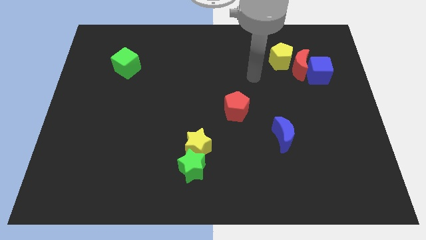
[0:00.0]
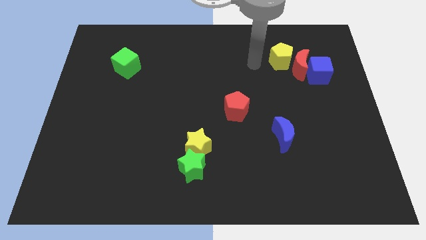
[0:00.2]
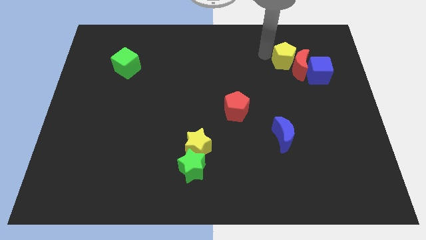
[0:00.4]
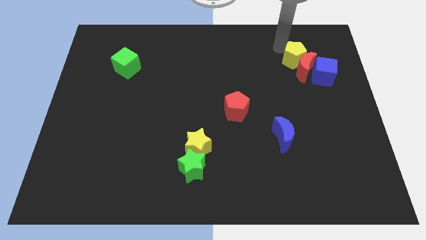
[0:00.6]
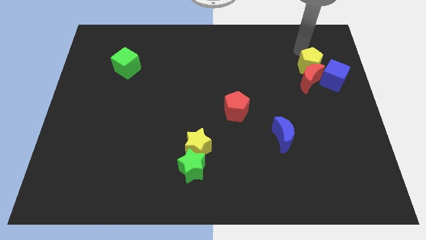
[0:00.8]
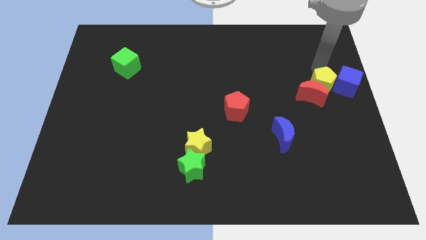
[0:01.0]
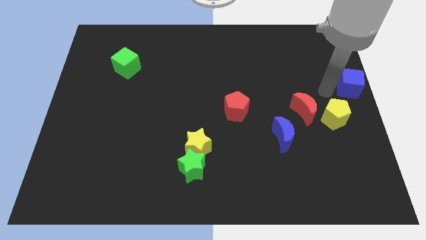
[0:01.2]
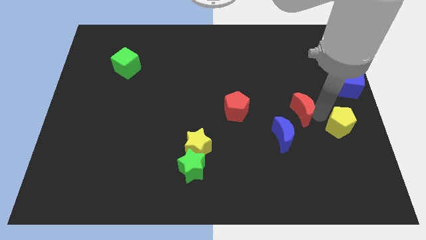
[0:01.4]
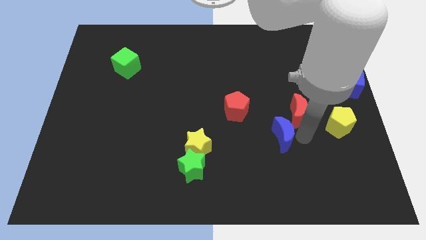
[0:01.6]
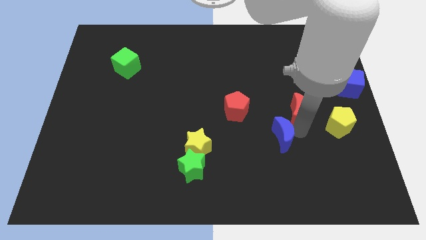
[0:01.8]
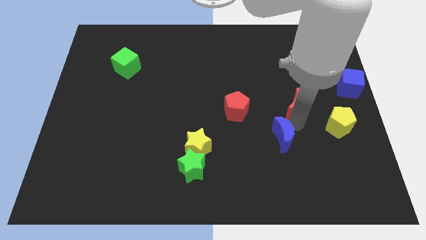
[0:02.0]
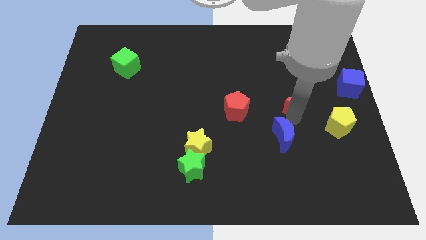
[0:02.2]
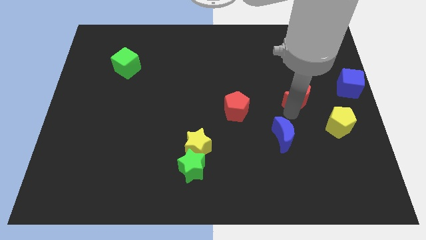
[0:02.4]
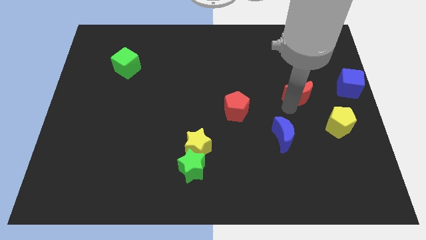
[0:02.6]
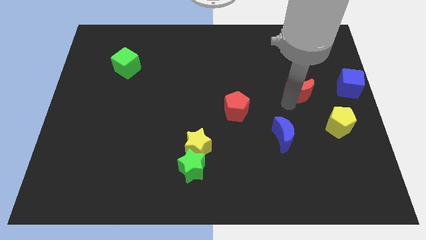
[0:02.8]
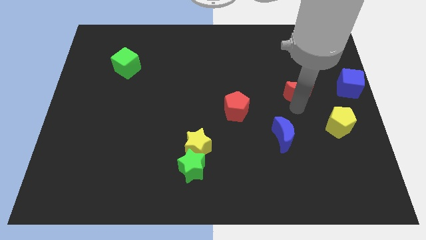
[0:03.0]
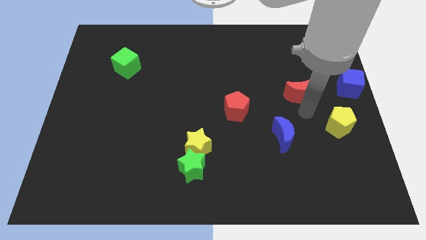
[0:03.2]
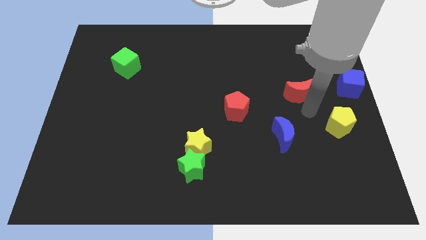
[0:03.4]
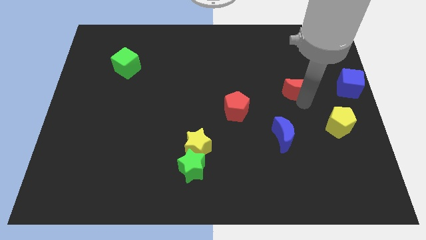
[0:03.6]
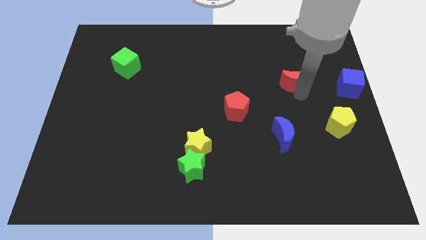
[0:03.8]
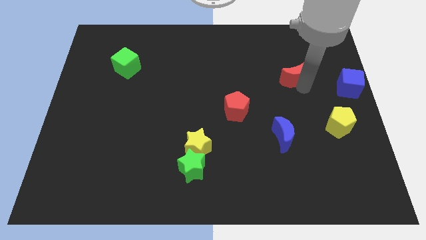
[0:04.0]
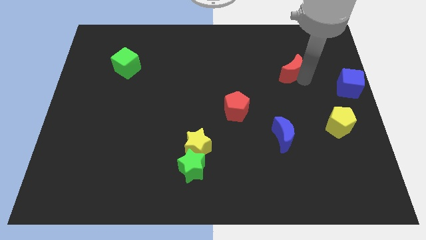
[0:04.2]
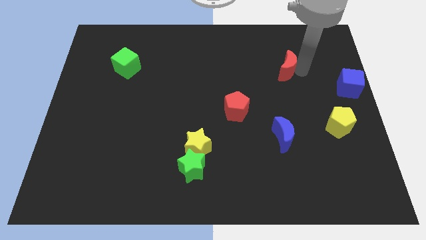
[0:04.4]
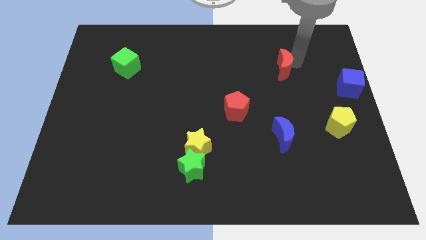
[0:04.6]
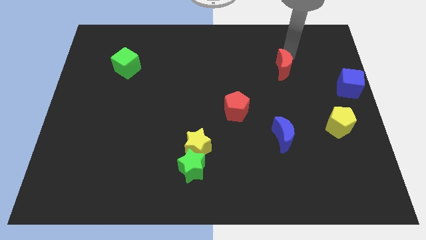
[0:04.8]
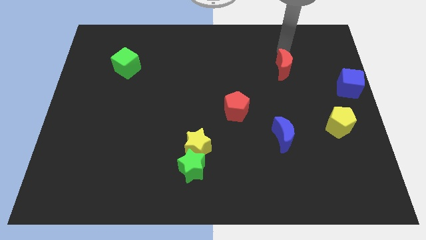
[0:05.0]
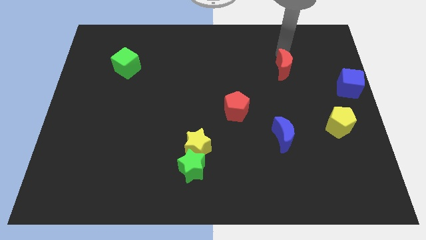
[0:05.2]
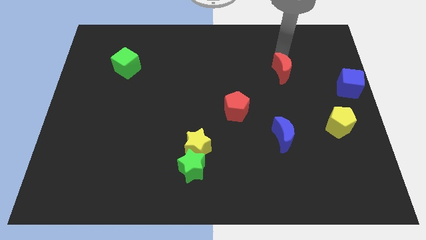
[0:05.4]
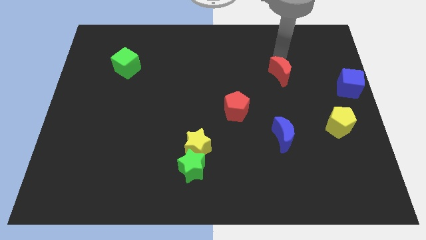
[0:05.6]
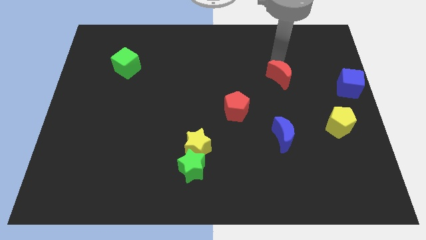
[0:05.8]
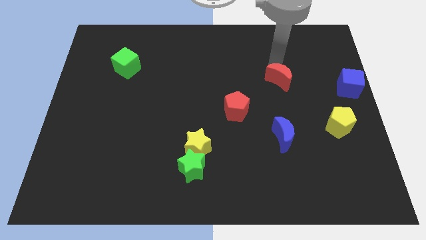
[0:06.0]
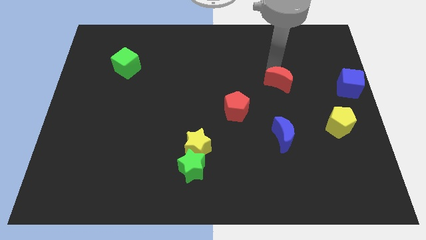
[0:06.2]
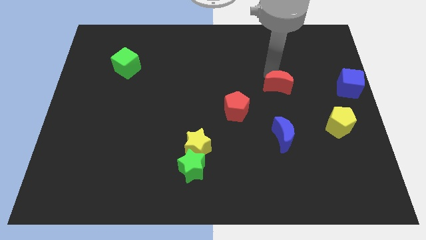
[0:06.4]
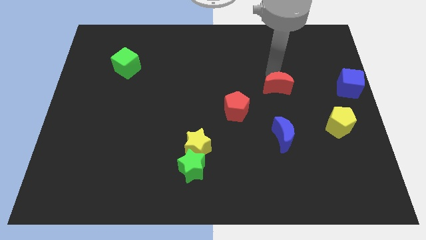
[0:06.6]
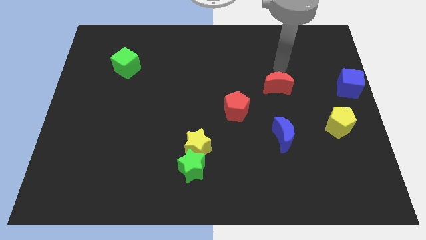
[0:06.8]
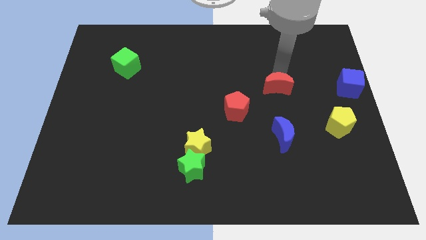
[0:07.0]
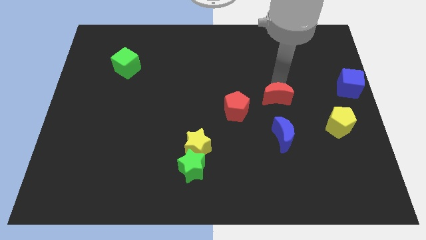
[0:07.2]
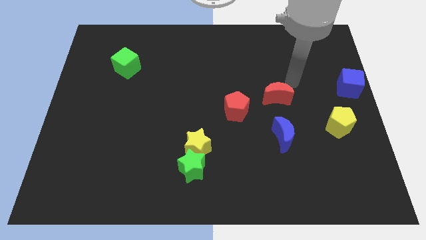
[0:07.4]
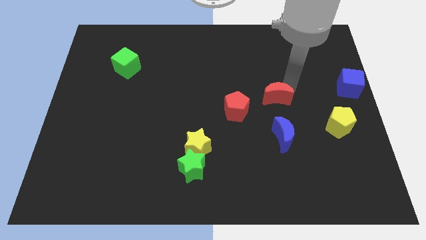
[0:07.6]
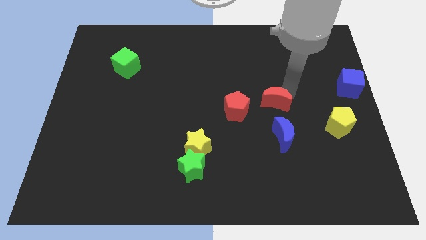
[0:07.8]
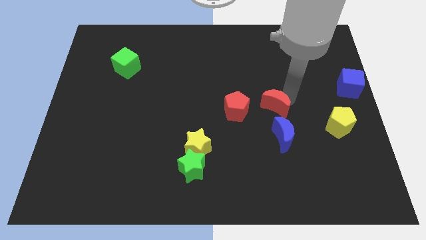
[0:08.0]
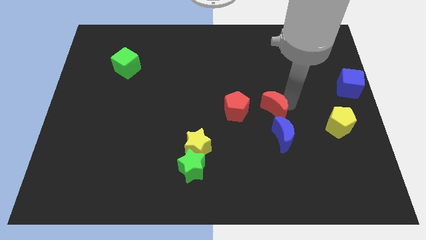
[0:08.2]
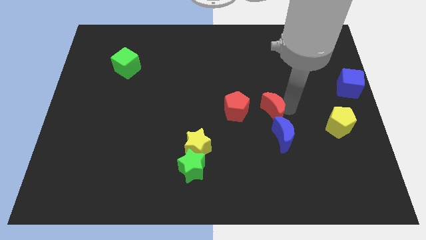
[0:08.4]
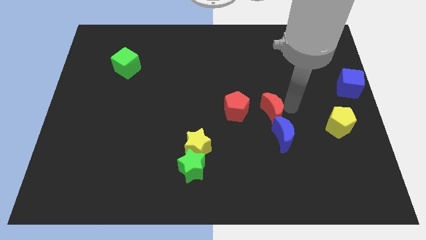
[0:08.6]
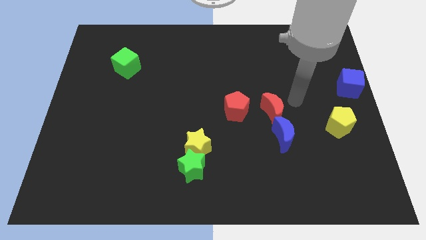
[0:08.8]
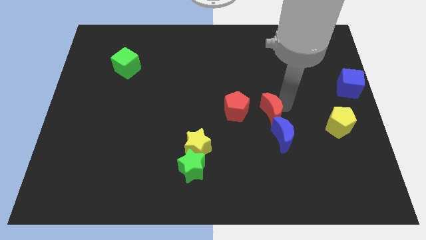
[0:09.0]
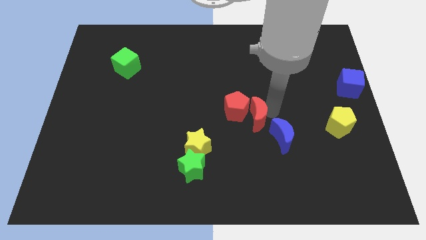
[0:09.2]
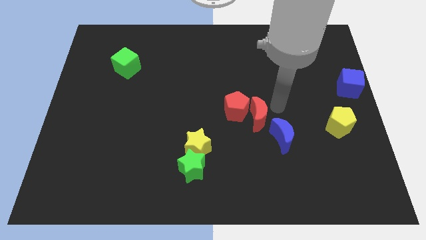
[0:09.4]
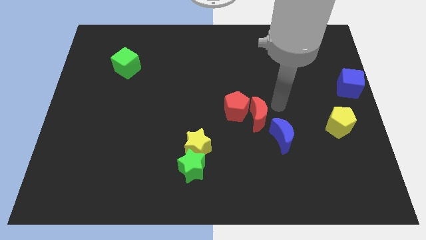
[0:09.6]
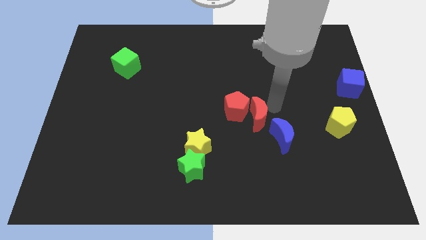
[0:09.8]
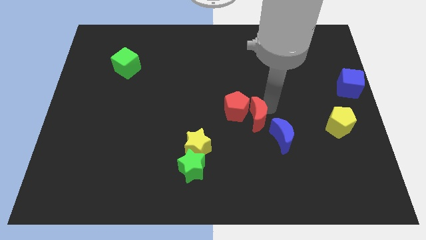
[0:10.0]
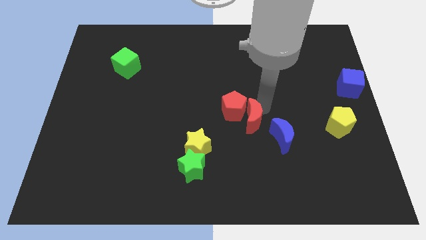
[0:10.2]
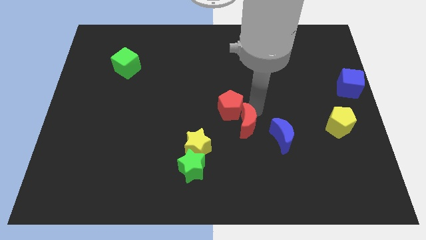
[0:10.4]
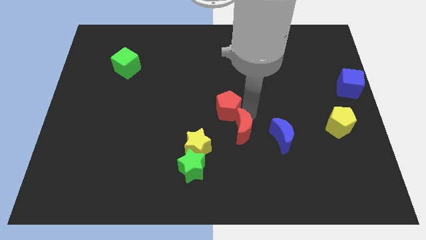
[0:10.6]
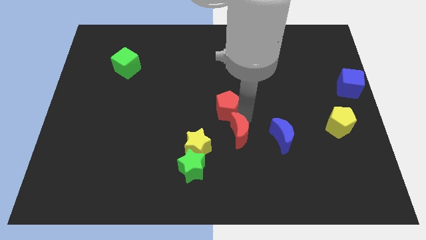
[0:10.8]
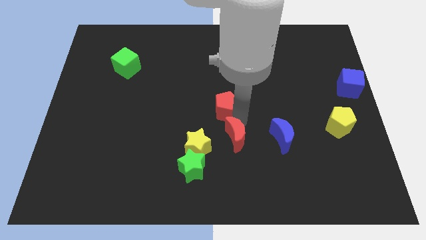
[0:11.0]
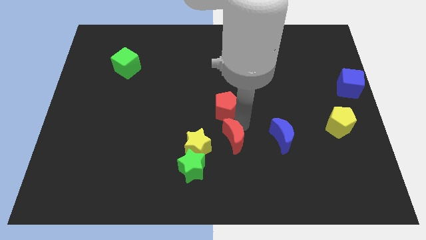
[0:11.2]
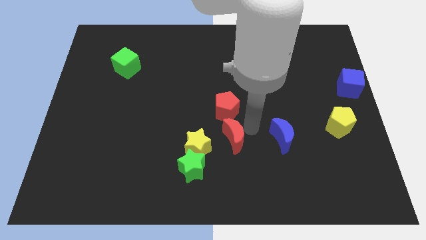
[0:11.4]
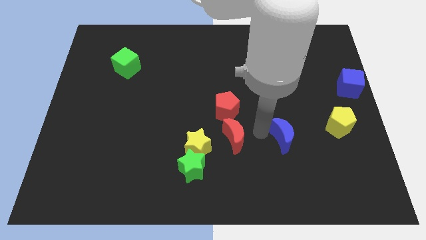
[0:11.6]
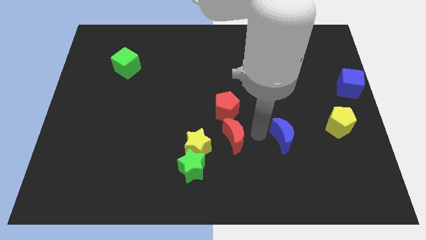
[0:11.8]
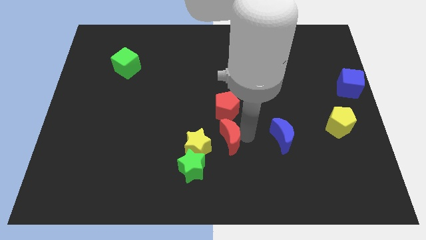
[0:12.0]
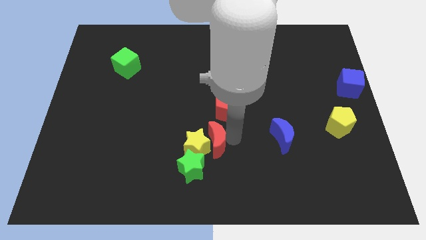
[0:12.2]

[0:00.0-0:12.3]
push the red moon next to the yellow star

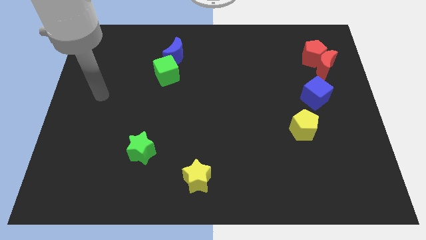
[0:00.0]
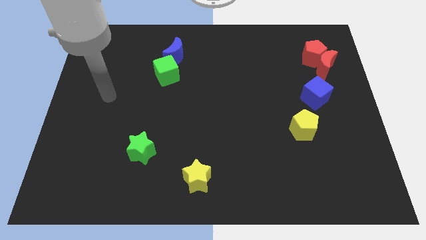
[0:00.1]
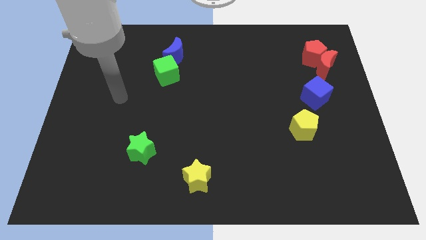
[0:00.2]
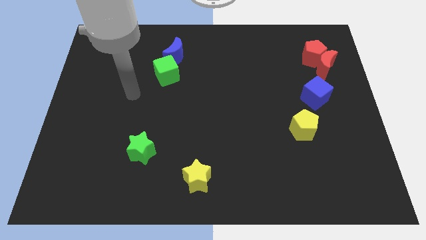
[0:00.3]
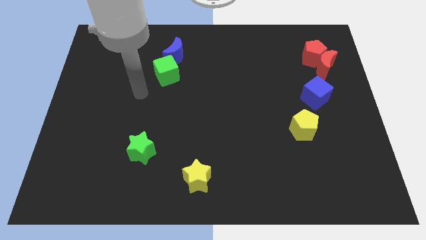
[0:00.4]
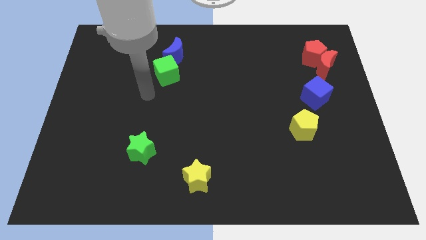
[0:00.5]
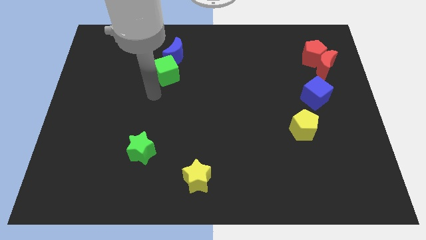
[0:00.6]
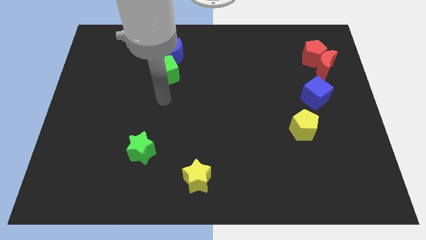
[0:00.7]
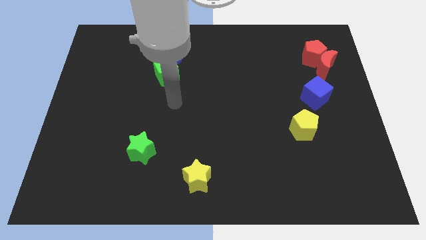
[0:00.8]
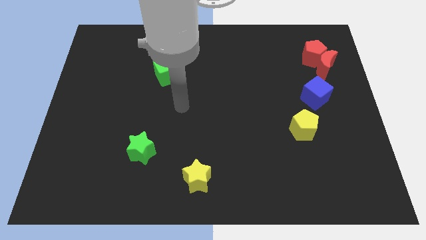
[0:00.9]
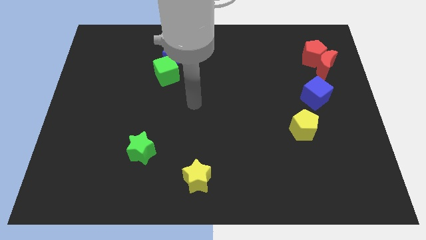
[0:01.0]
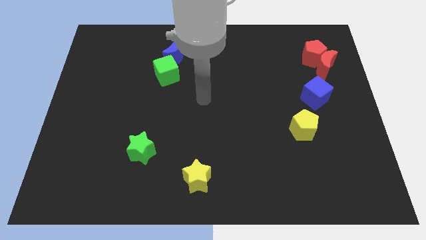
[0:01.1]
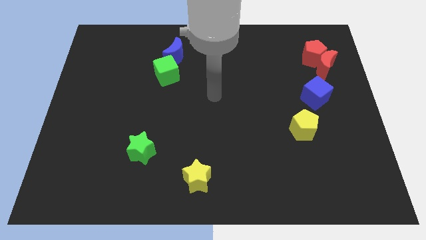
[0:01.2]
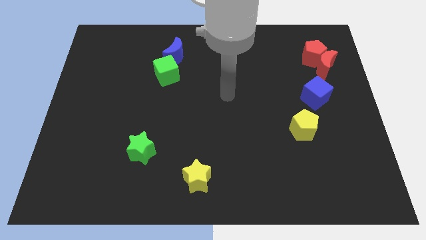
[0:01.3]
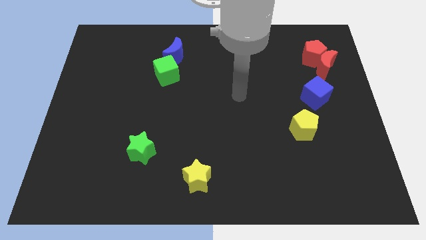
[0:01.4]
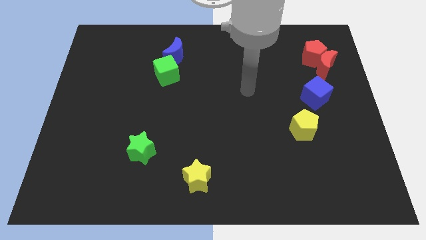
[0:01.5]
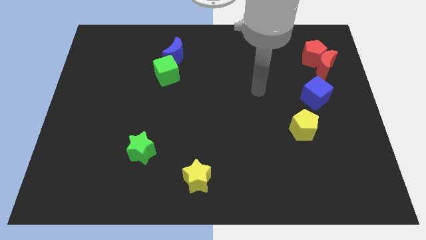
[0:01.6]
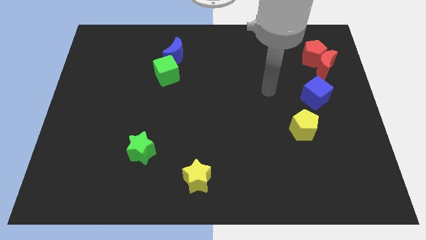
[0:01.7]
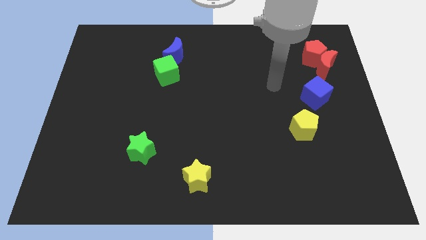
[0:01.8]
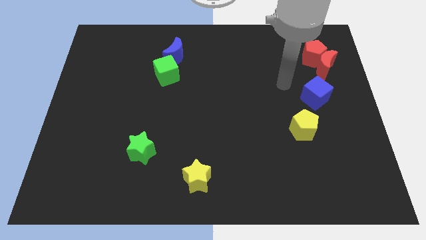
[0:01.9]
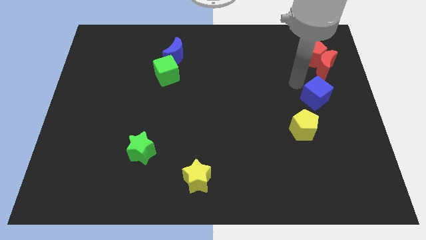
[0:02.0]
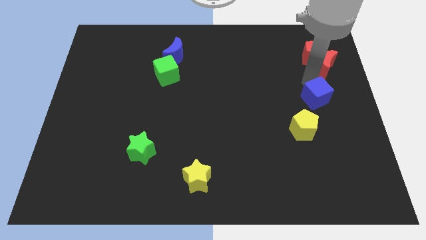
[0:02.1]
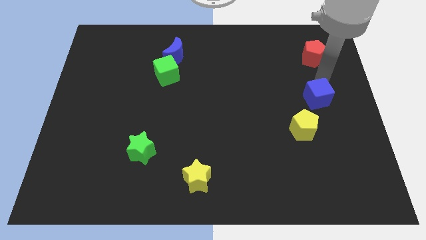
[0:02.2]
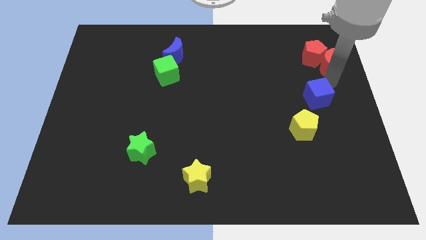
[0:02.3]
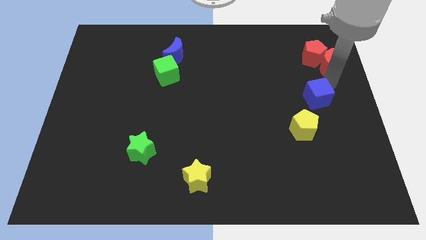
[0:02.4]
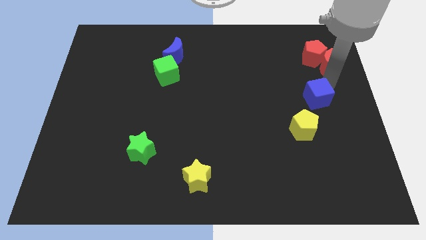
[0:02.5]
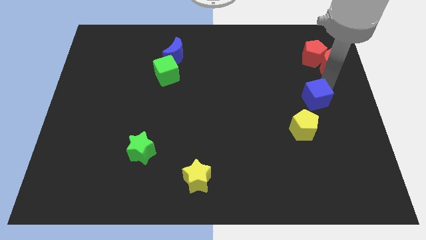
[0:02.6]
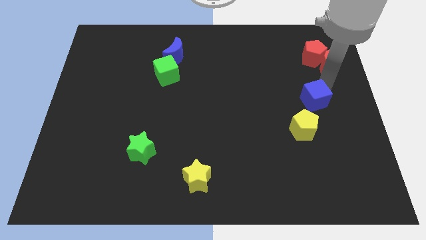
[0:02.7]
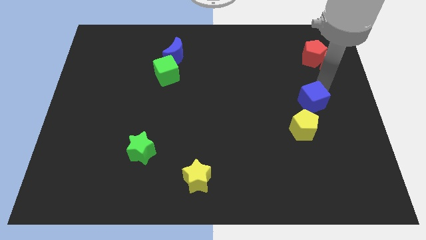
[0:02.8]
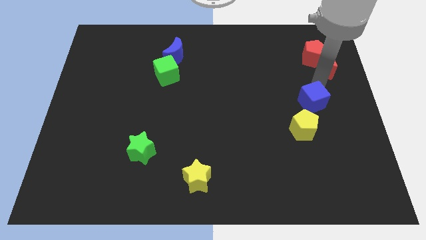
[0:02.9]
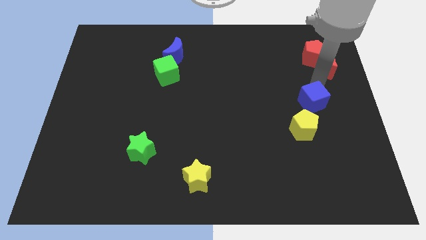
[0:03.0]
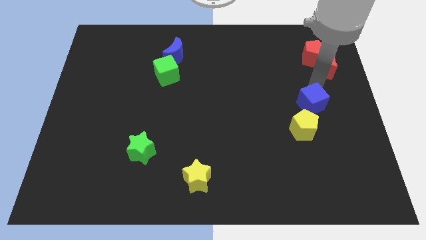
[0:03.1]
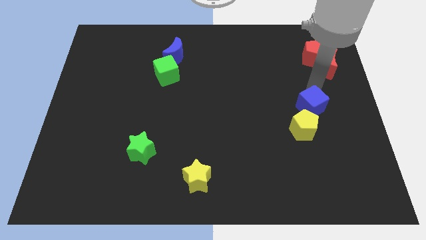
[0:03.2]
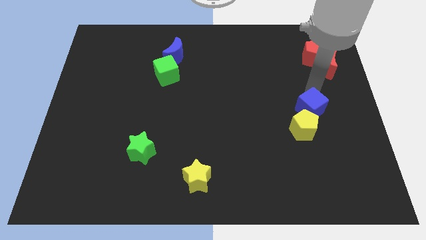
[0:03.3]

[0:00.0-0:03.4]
push the blue cube towards the yellow pentagon
